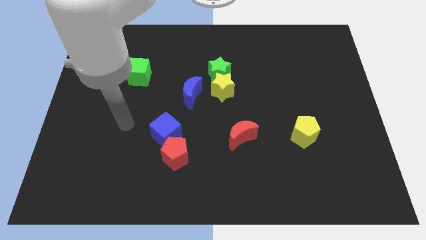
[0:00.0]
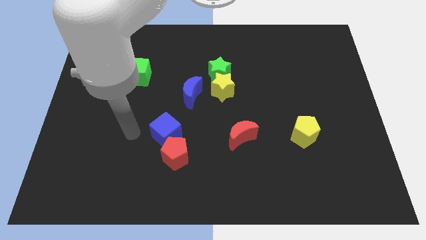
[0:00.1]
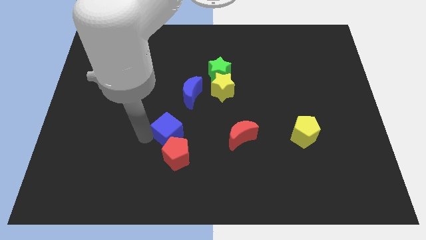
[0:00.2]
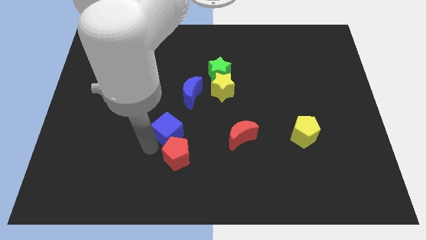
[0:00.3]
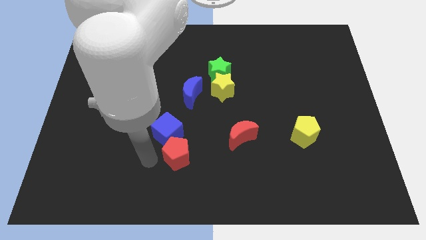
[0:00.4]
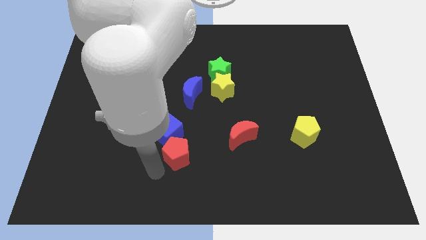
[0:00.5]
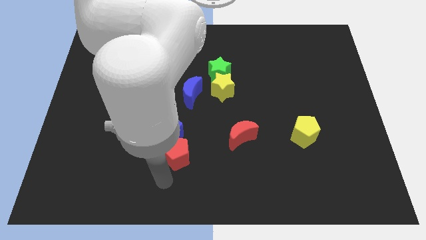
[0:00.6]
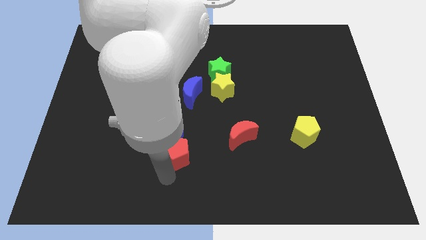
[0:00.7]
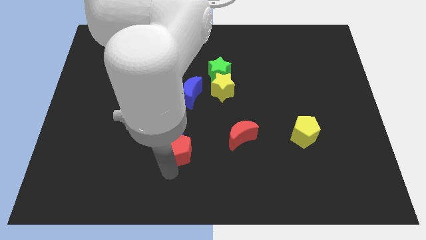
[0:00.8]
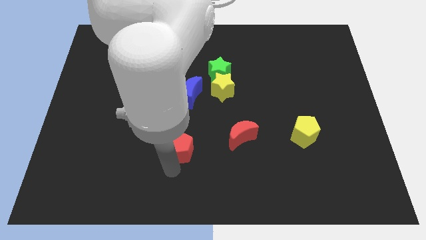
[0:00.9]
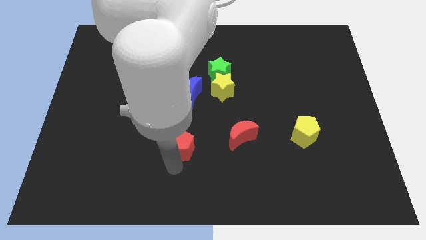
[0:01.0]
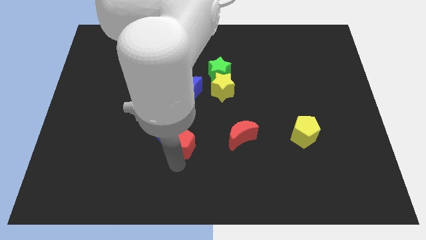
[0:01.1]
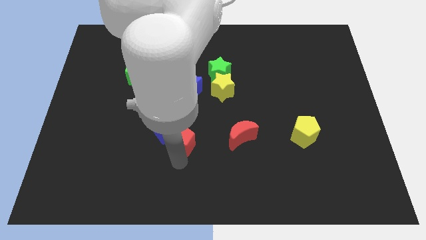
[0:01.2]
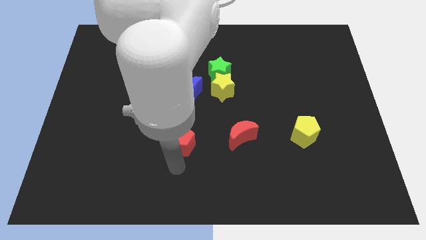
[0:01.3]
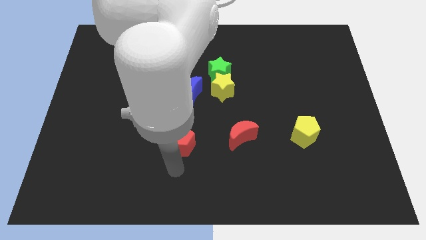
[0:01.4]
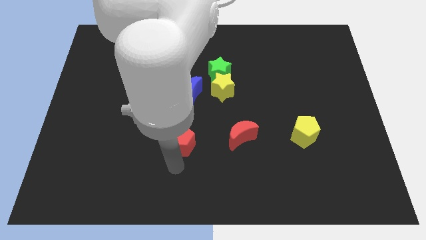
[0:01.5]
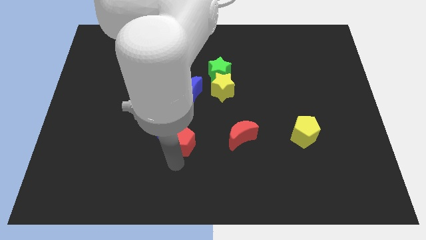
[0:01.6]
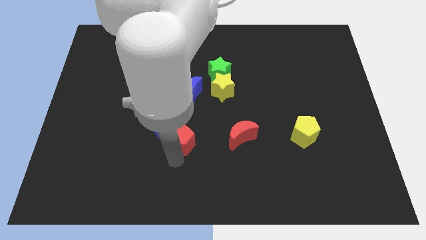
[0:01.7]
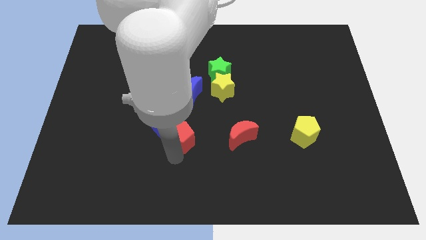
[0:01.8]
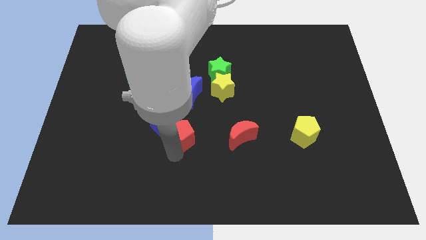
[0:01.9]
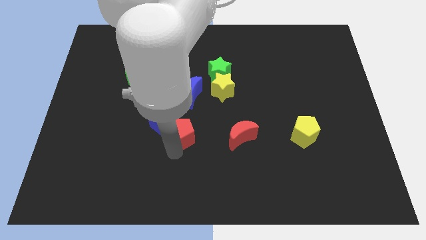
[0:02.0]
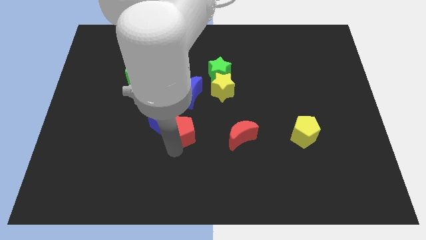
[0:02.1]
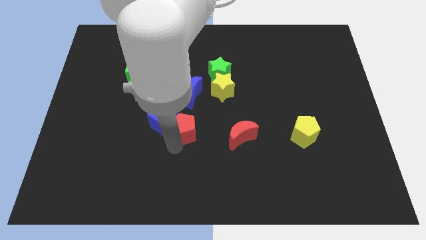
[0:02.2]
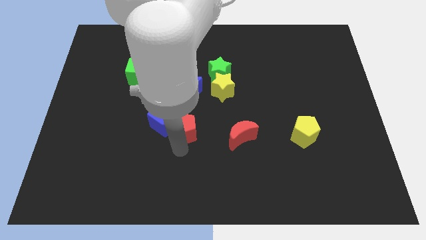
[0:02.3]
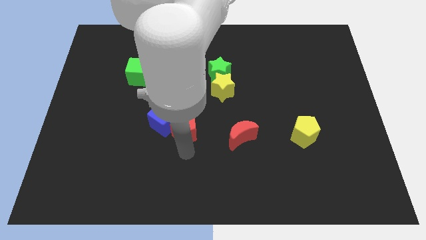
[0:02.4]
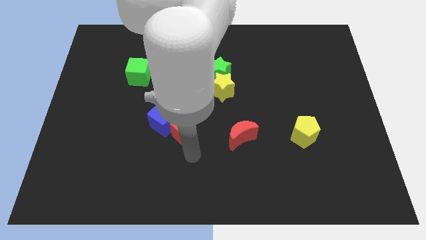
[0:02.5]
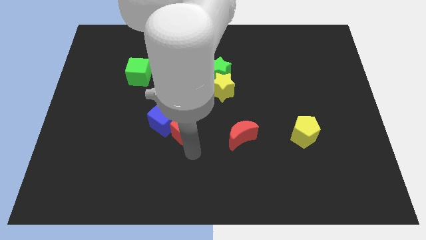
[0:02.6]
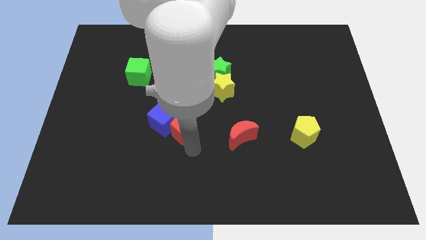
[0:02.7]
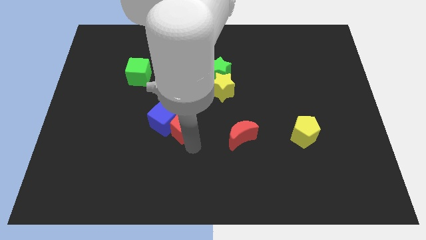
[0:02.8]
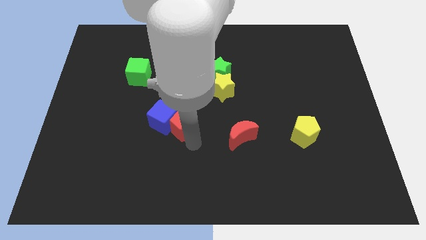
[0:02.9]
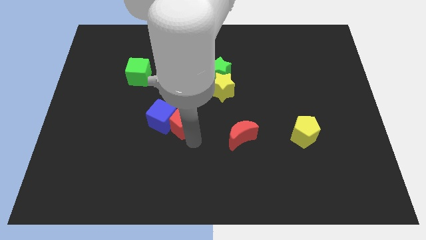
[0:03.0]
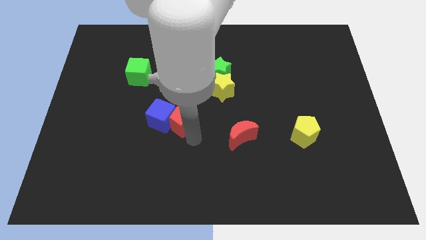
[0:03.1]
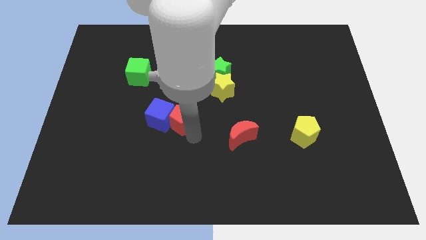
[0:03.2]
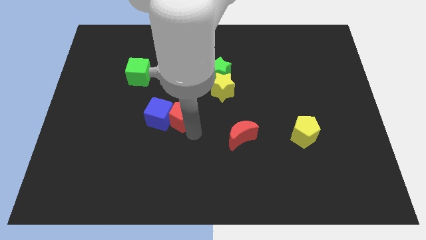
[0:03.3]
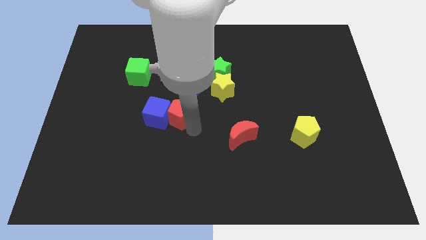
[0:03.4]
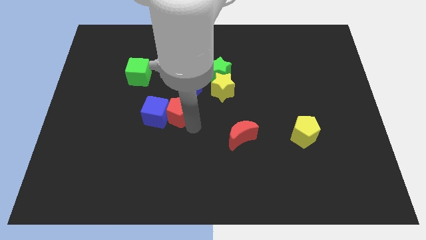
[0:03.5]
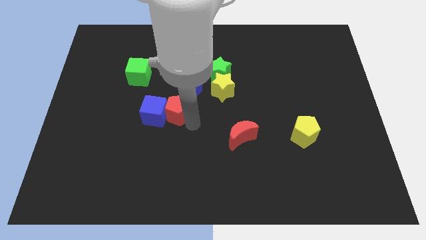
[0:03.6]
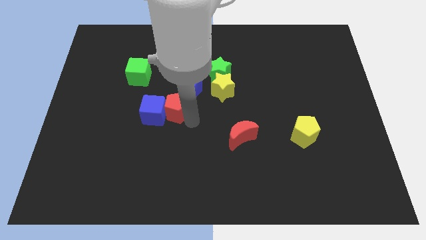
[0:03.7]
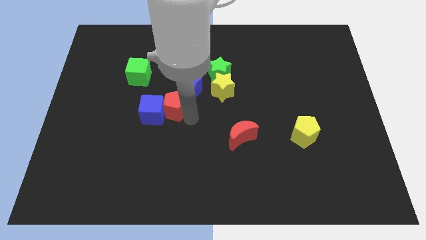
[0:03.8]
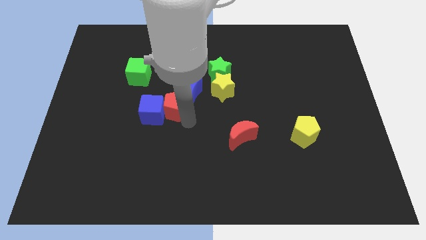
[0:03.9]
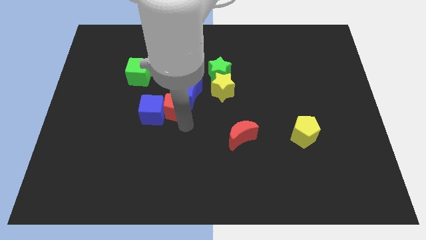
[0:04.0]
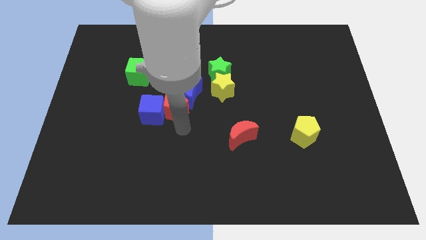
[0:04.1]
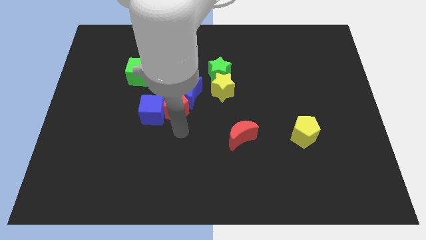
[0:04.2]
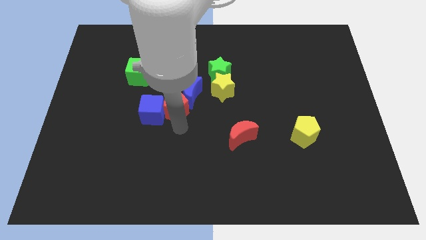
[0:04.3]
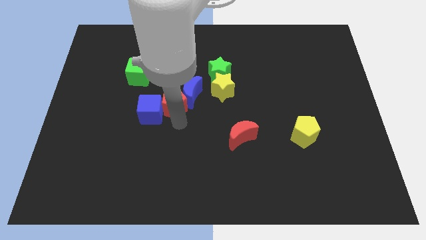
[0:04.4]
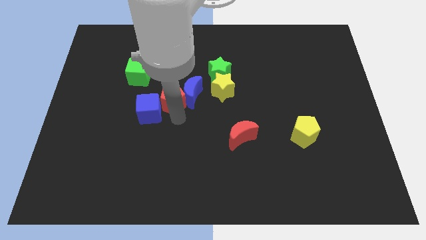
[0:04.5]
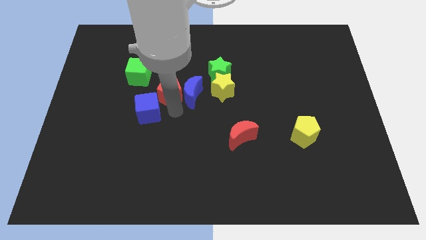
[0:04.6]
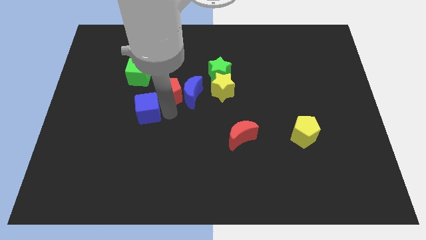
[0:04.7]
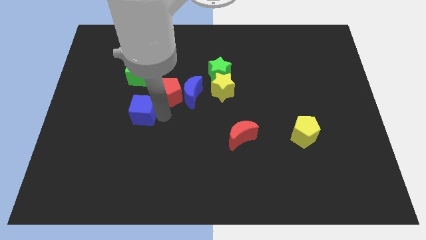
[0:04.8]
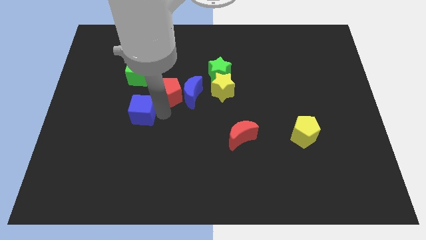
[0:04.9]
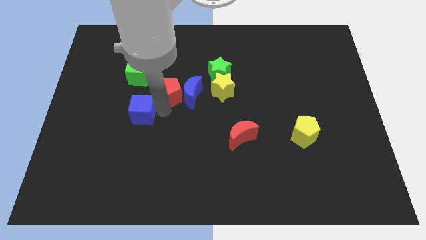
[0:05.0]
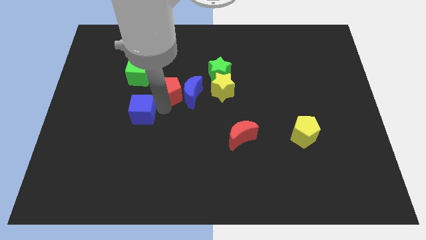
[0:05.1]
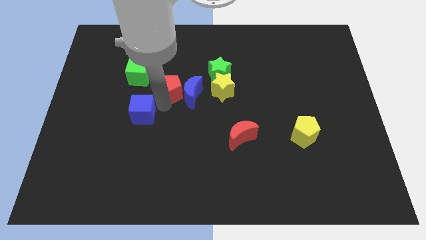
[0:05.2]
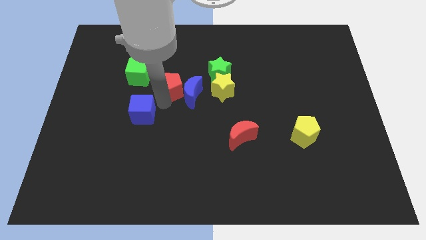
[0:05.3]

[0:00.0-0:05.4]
move the red pentagon to the left side of the green star

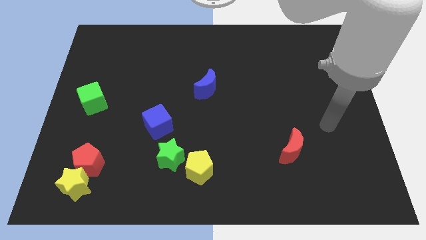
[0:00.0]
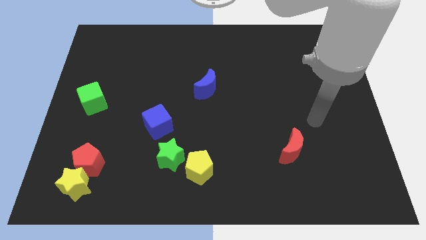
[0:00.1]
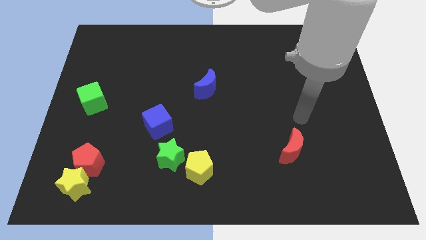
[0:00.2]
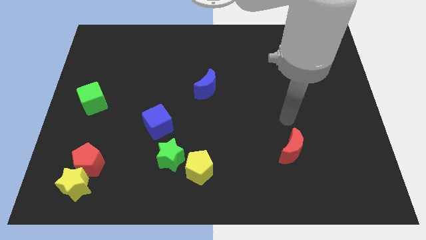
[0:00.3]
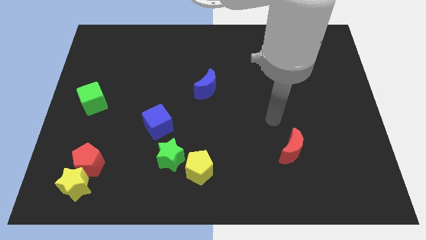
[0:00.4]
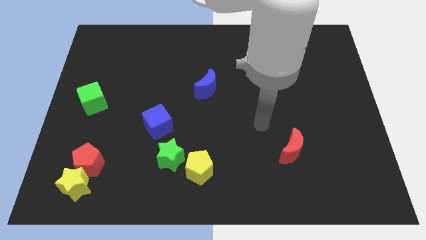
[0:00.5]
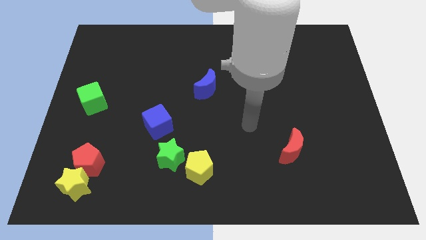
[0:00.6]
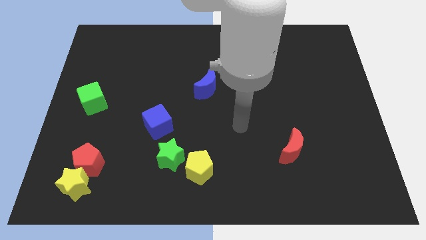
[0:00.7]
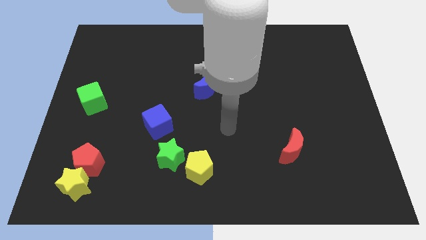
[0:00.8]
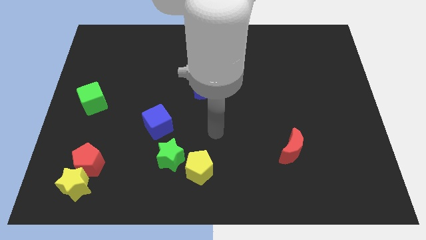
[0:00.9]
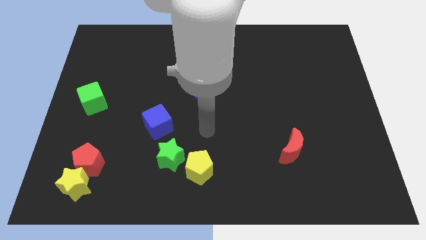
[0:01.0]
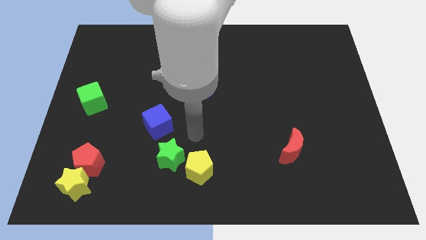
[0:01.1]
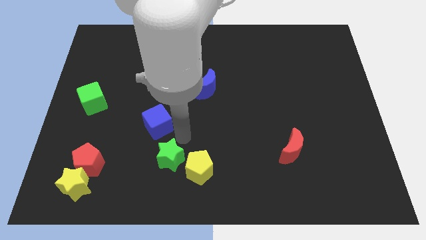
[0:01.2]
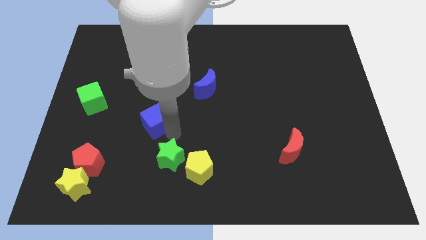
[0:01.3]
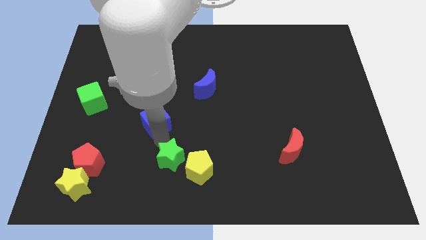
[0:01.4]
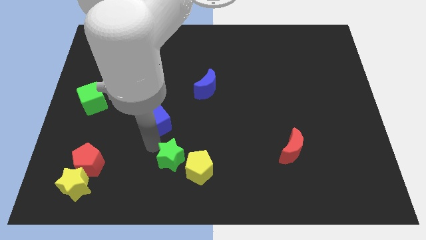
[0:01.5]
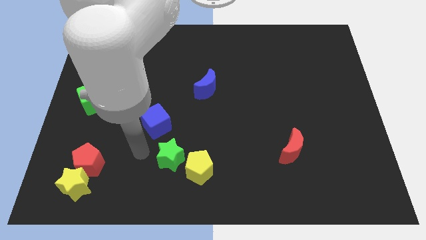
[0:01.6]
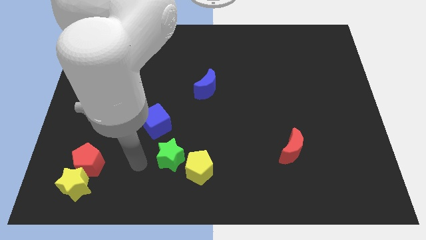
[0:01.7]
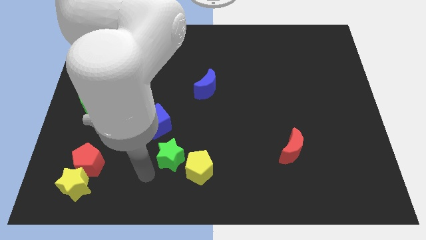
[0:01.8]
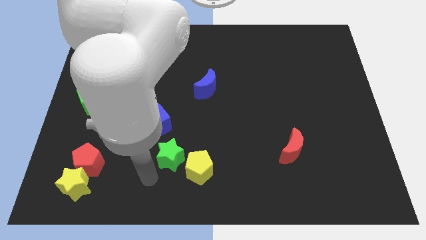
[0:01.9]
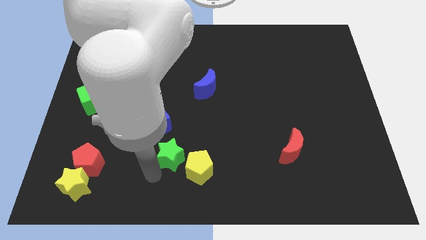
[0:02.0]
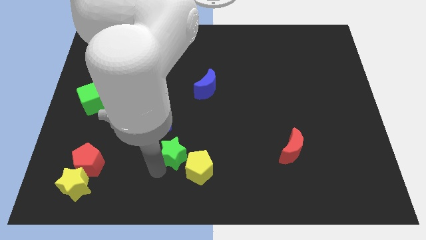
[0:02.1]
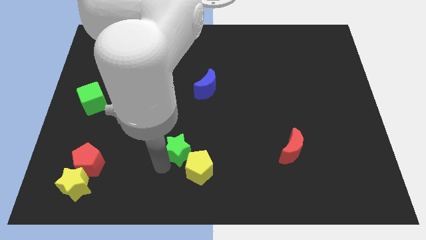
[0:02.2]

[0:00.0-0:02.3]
push the green star above the yellow pentagon

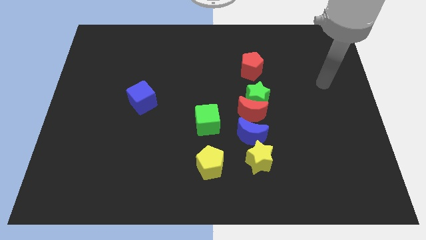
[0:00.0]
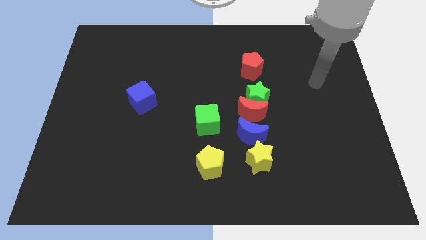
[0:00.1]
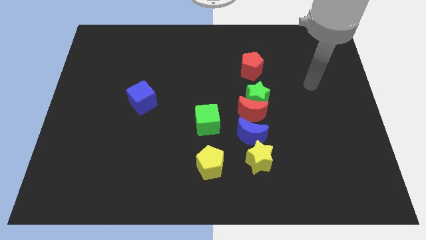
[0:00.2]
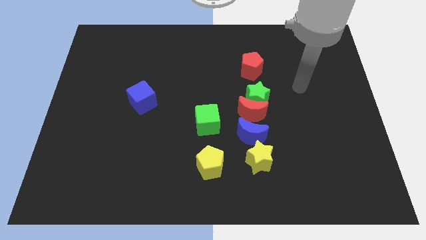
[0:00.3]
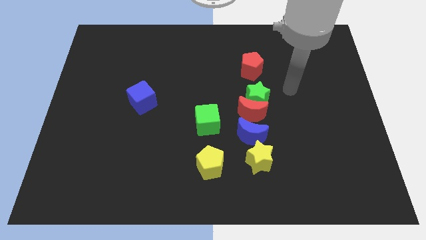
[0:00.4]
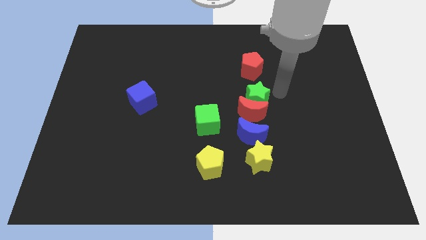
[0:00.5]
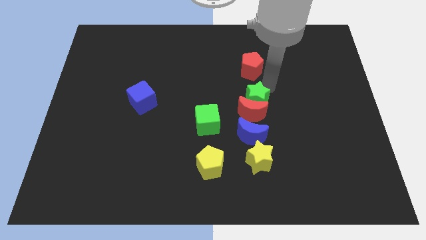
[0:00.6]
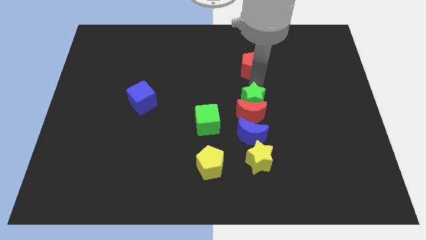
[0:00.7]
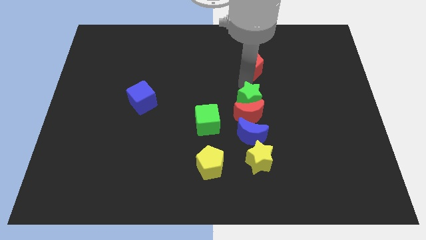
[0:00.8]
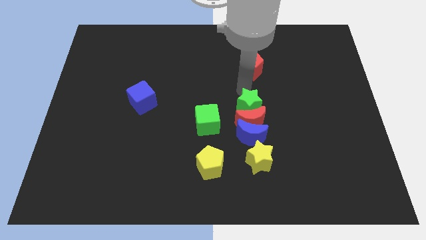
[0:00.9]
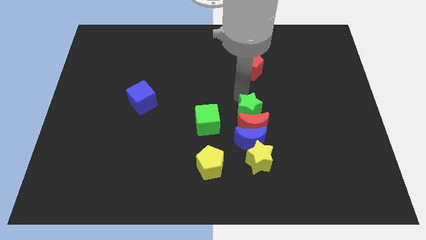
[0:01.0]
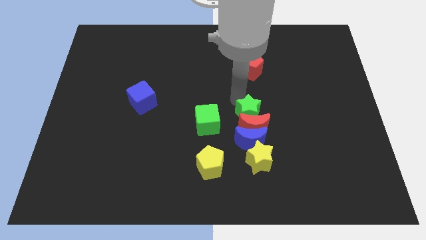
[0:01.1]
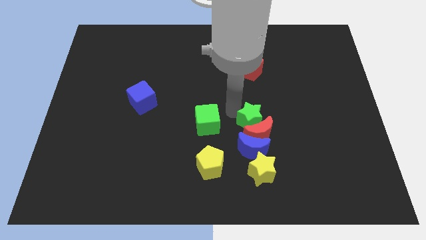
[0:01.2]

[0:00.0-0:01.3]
move the red moon right of the blue moon
